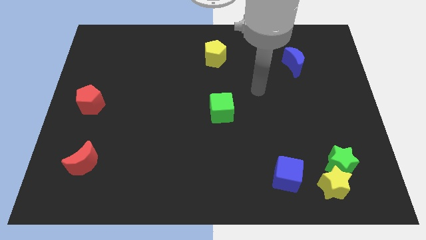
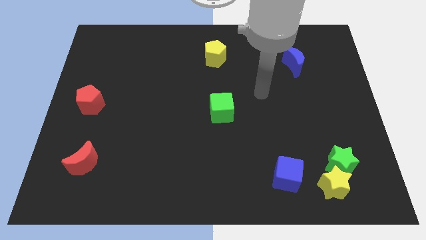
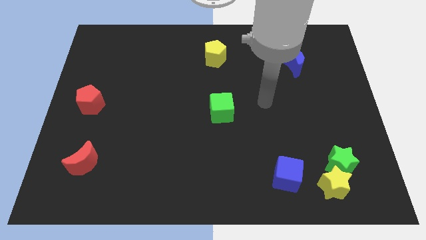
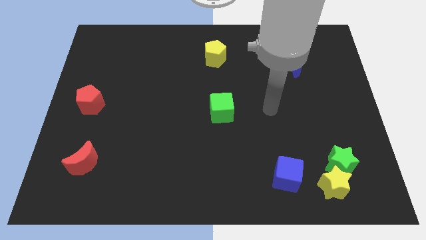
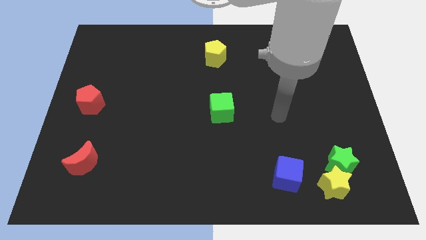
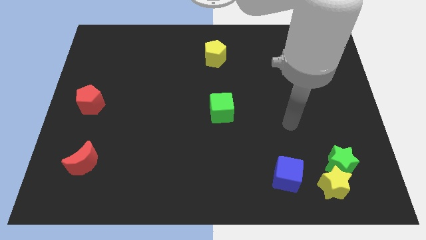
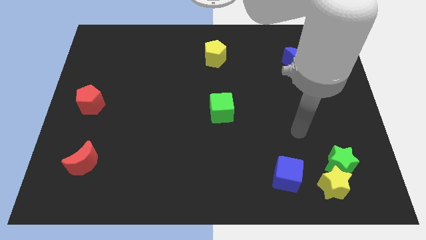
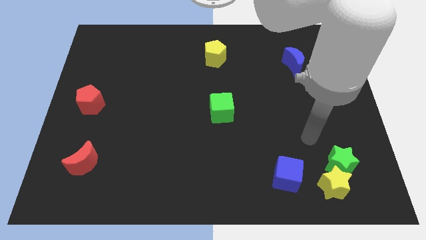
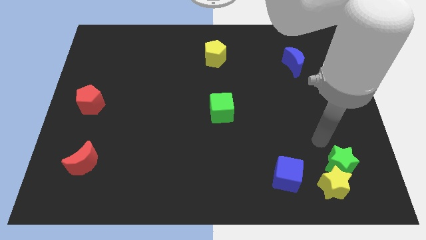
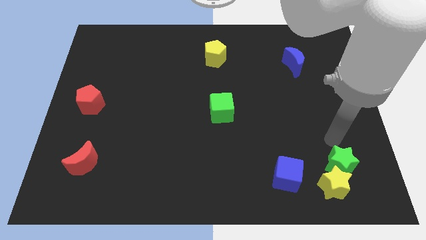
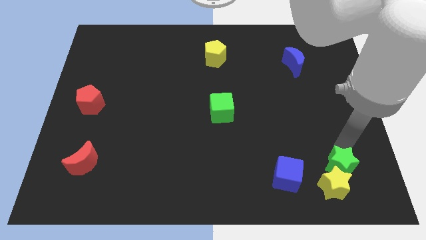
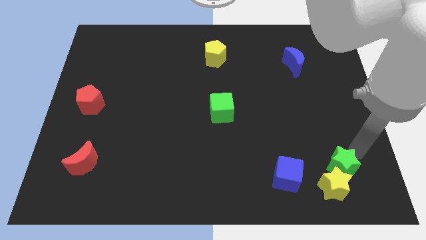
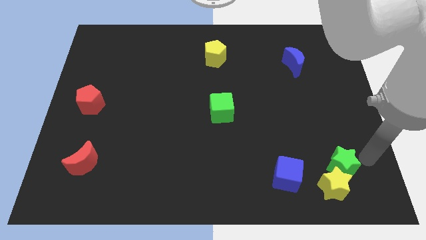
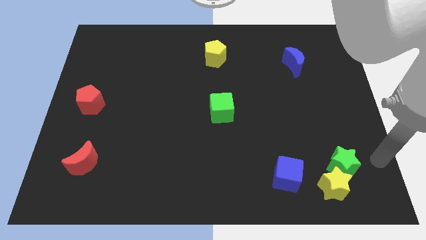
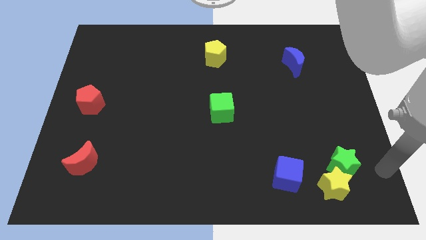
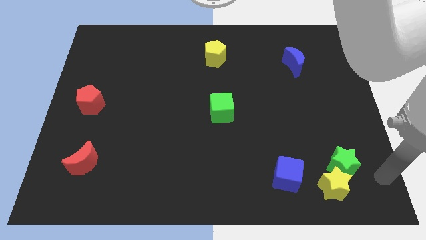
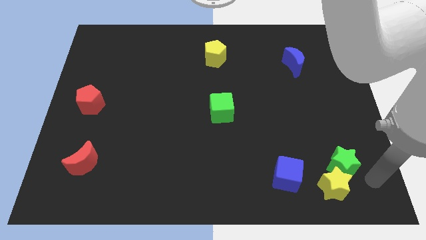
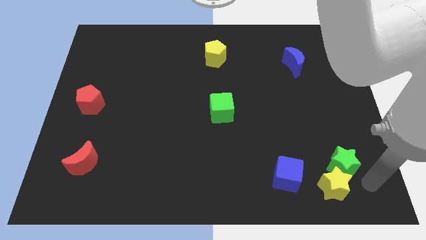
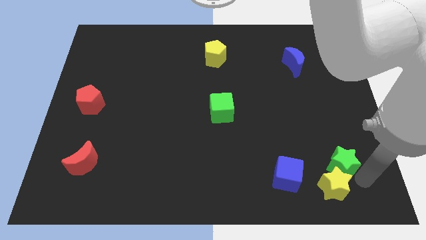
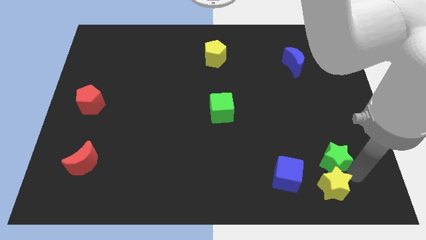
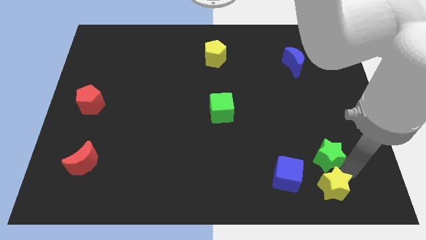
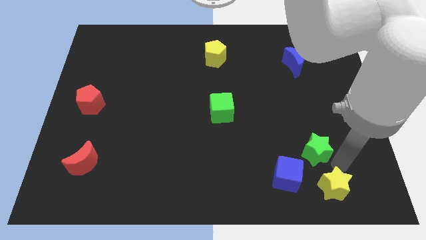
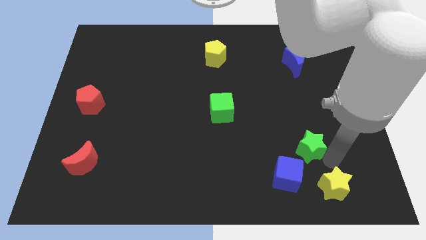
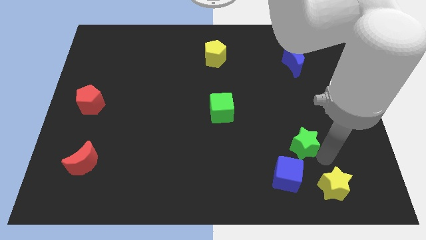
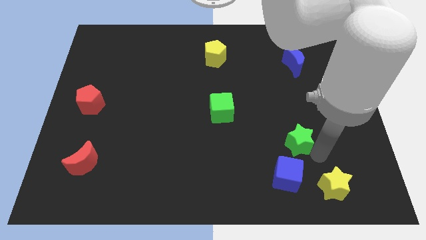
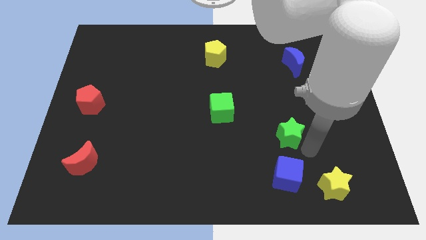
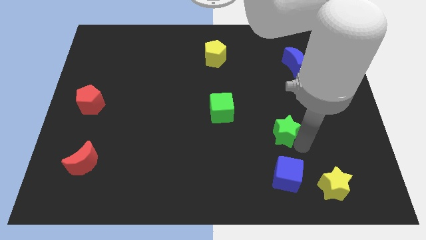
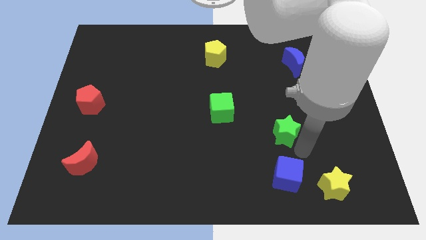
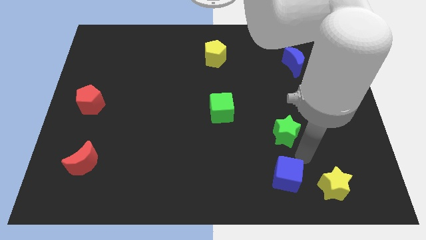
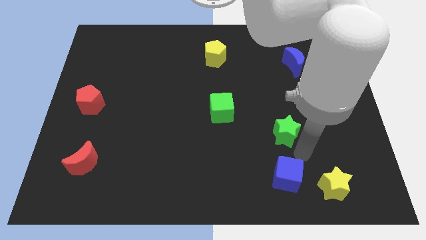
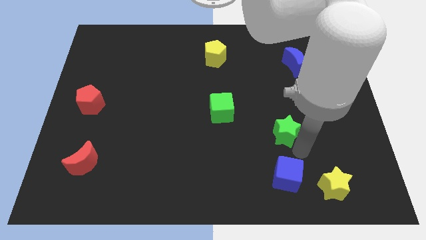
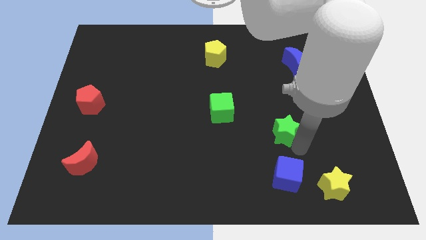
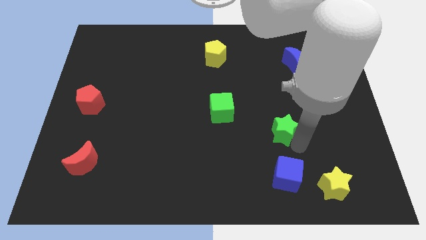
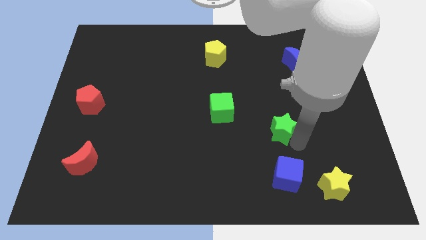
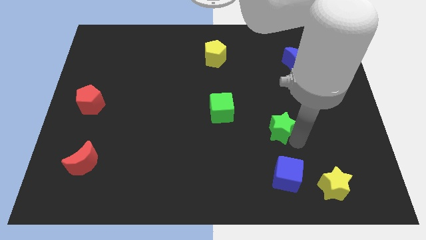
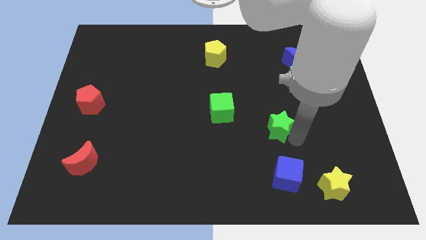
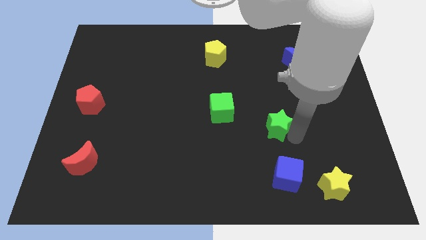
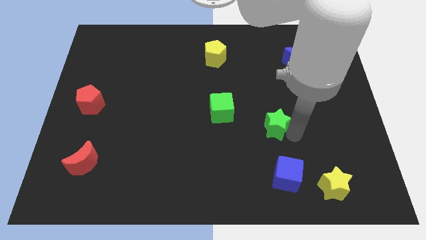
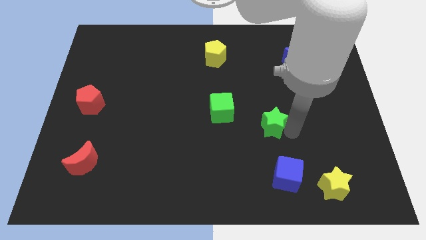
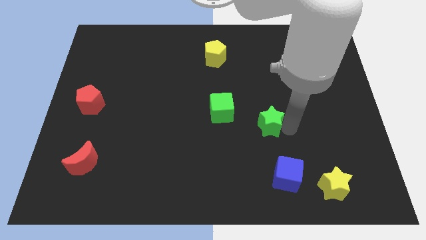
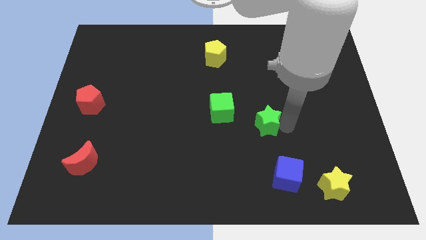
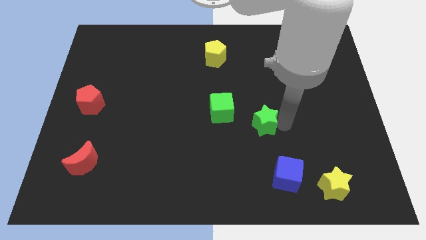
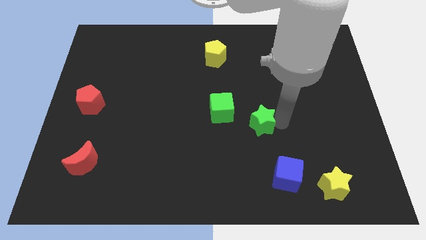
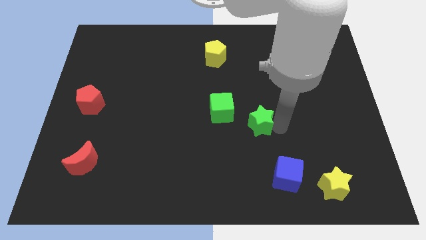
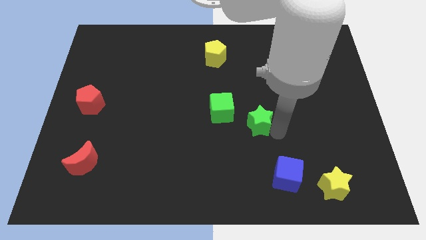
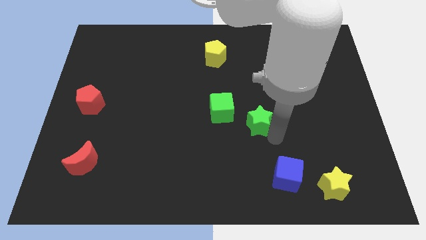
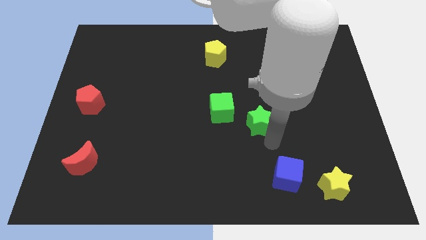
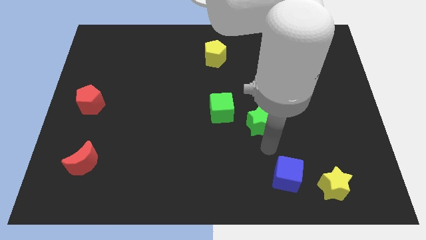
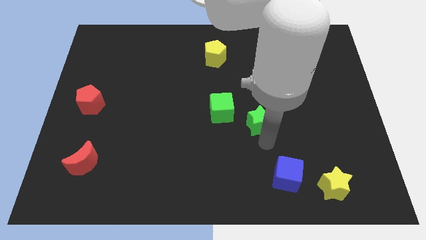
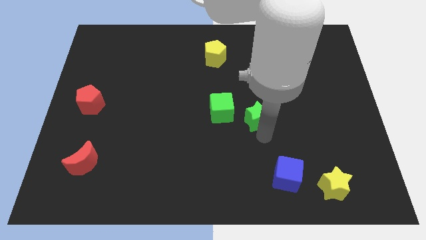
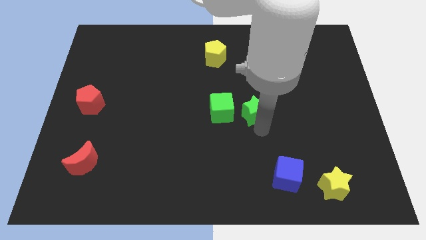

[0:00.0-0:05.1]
move the green star upwards and then to the left

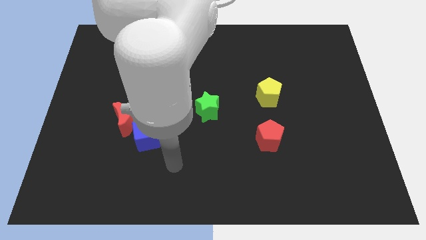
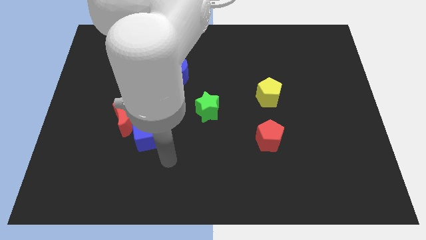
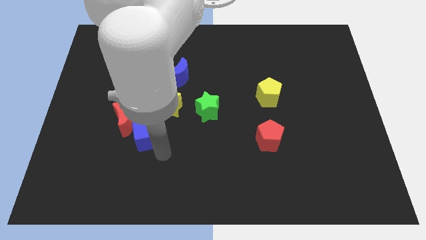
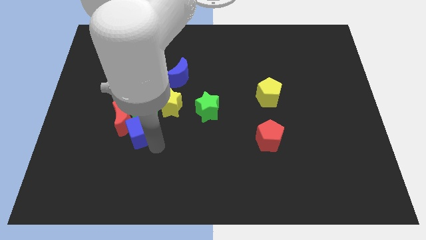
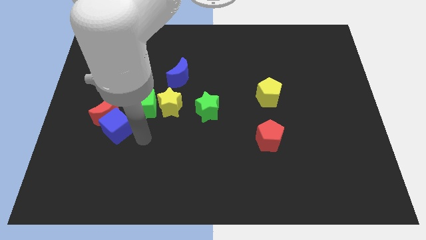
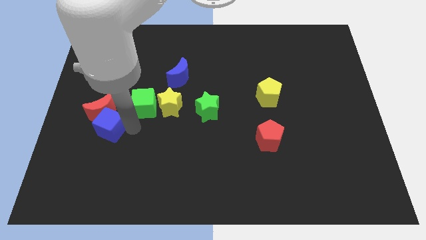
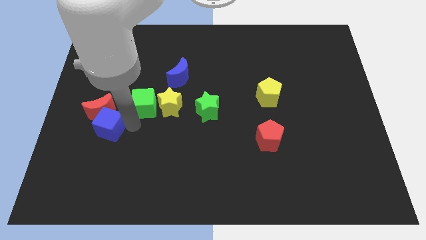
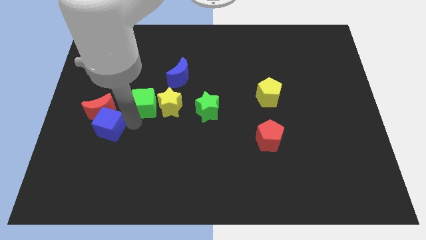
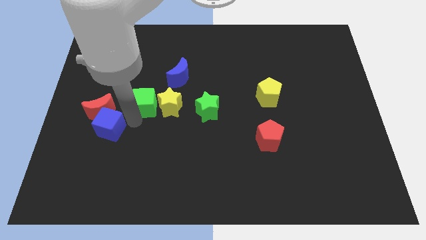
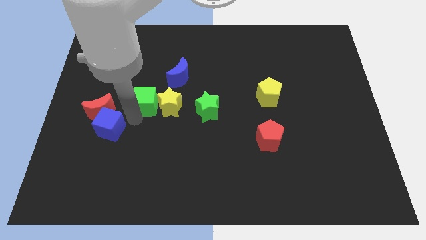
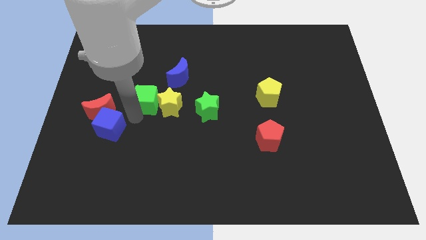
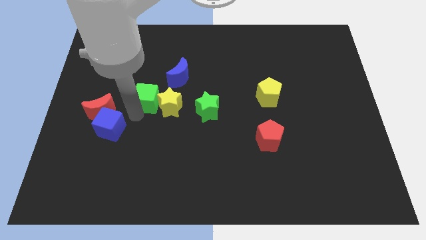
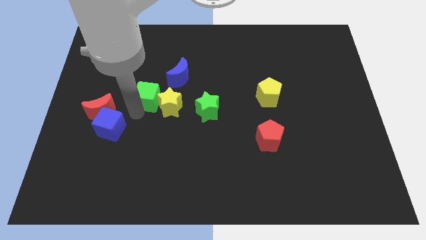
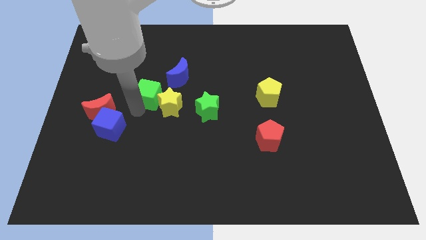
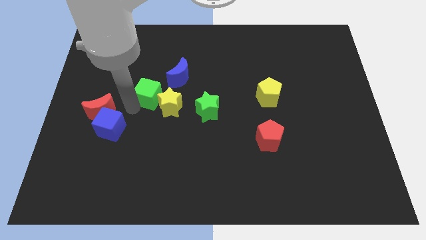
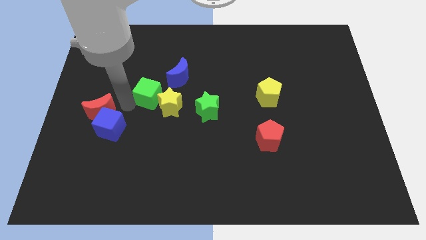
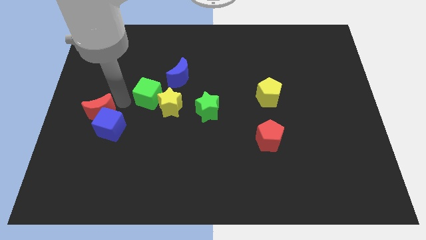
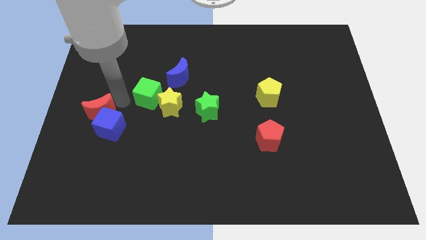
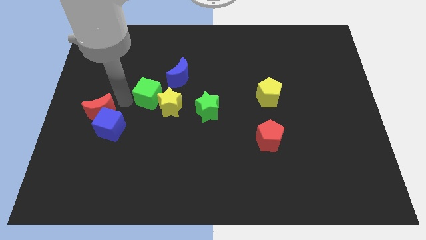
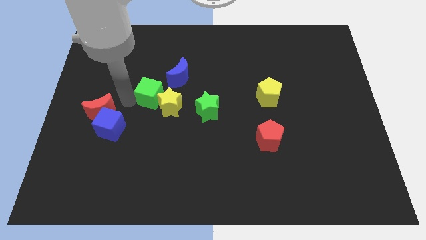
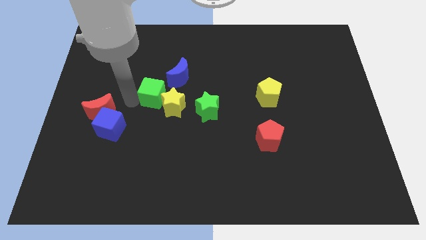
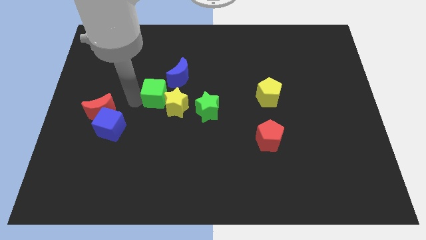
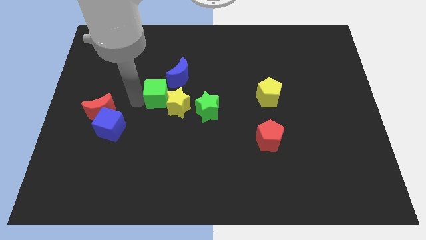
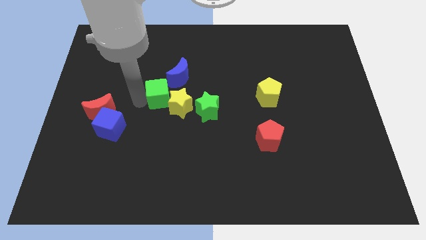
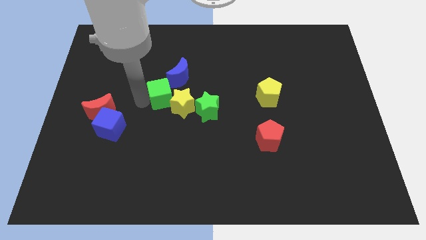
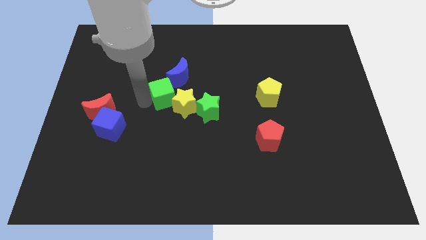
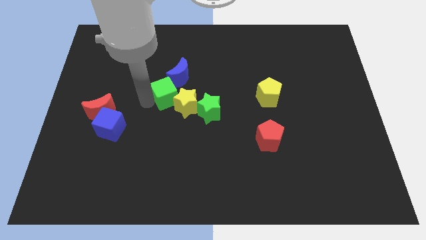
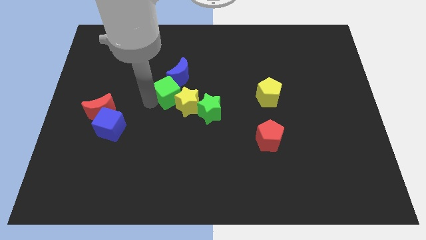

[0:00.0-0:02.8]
slightly push the green cube upwards and right diagonally
